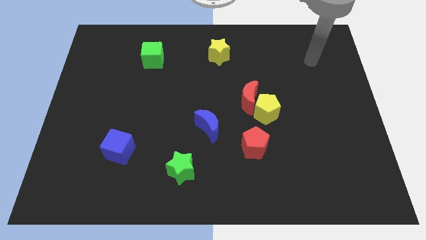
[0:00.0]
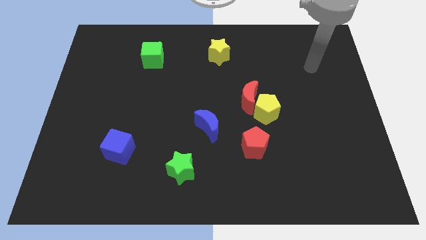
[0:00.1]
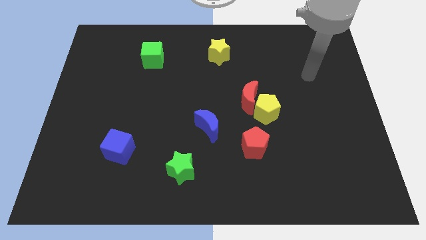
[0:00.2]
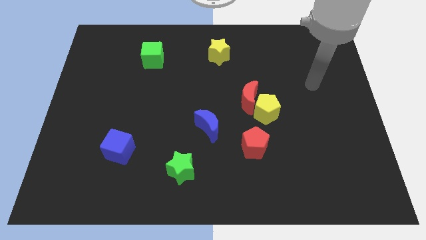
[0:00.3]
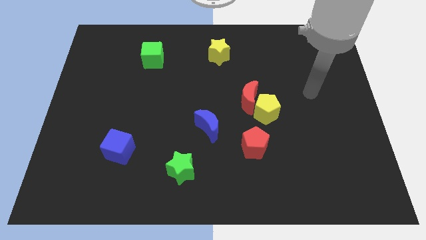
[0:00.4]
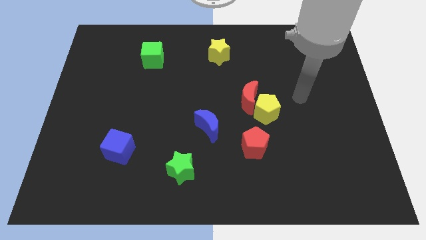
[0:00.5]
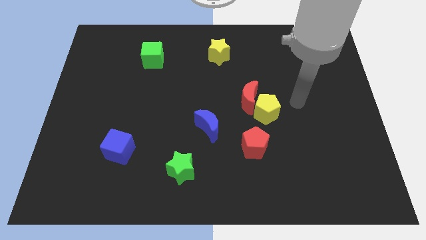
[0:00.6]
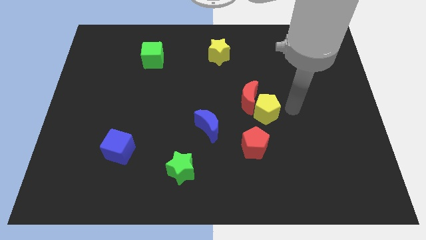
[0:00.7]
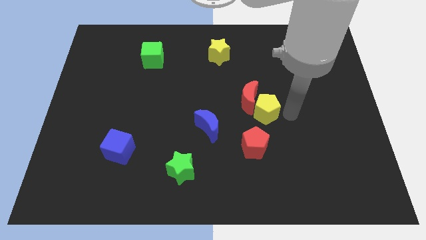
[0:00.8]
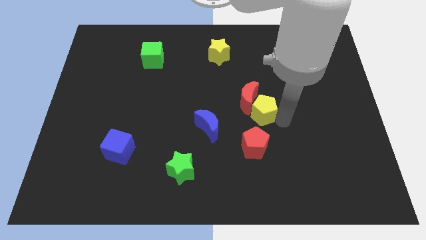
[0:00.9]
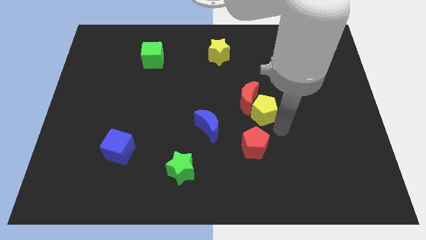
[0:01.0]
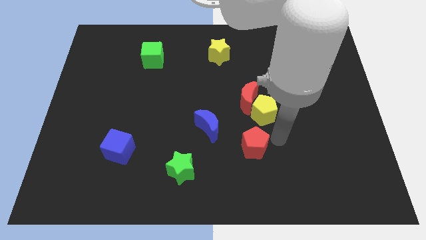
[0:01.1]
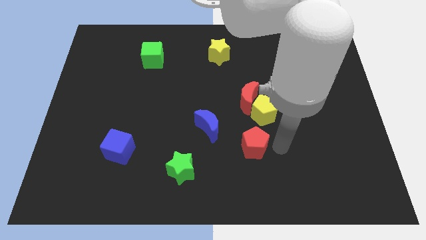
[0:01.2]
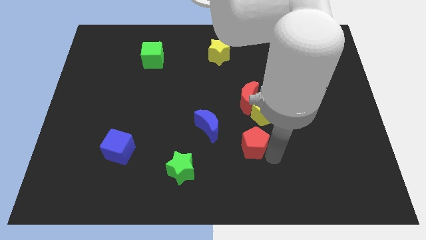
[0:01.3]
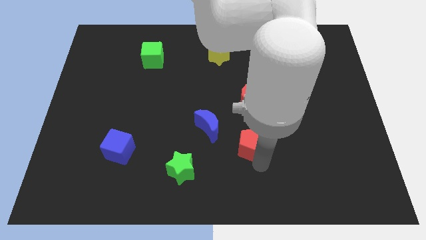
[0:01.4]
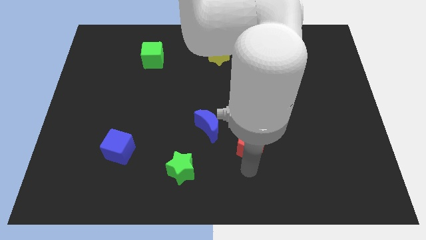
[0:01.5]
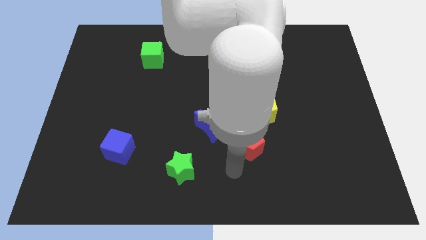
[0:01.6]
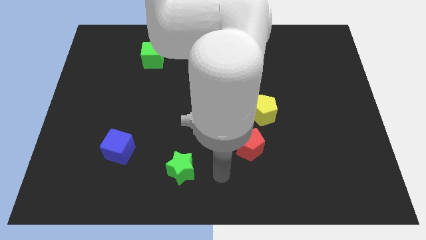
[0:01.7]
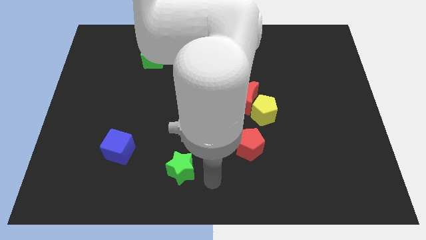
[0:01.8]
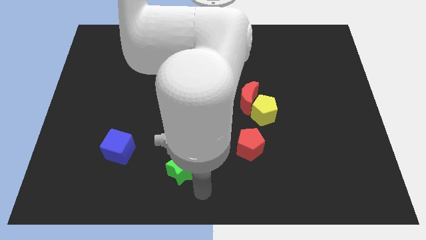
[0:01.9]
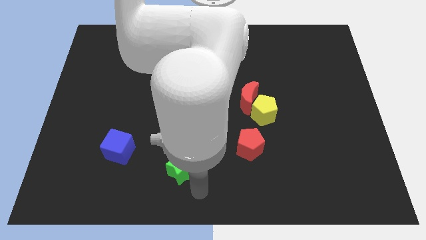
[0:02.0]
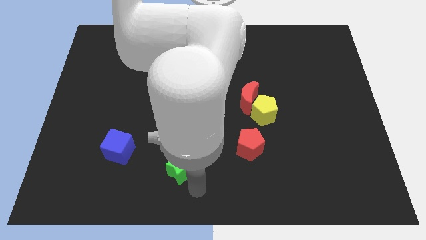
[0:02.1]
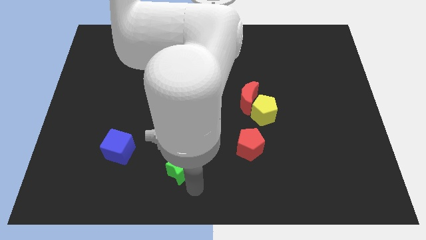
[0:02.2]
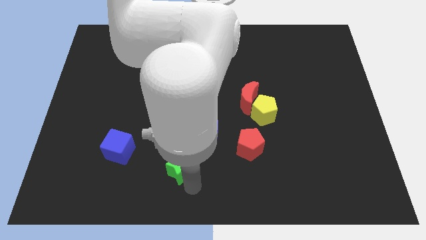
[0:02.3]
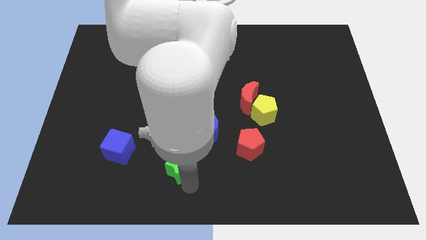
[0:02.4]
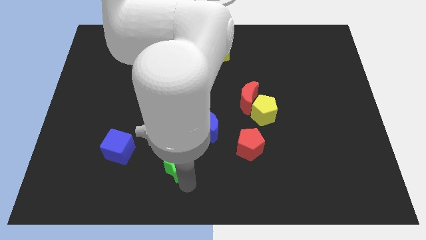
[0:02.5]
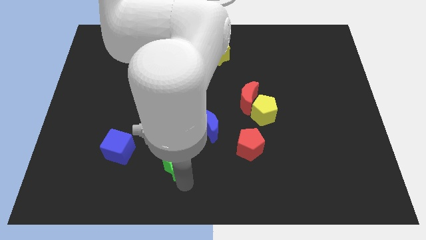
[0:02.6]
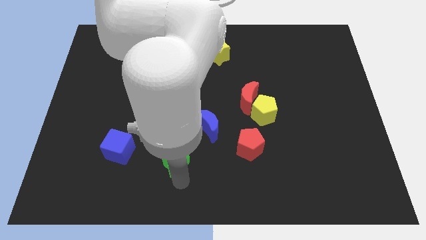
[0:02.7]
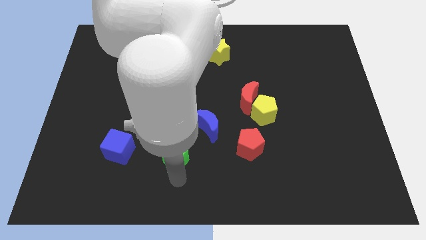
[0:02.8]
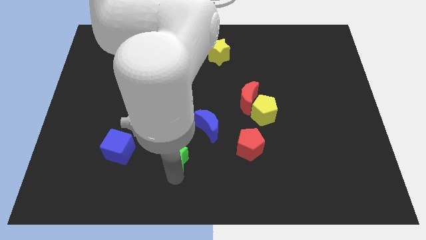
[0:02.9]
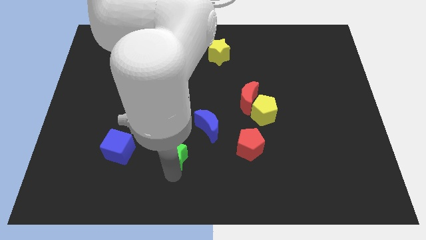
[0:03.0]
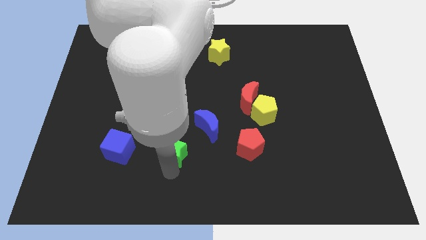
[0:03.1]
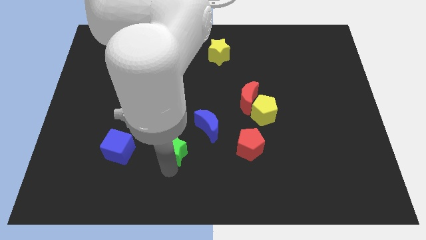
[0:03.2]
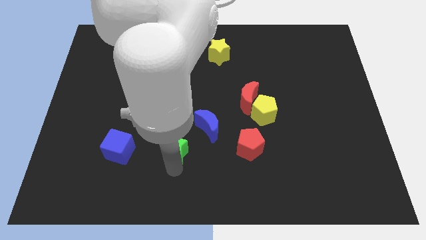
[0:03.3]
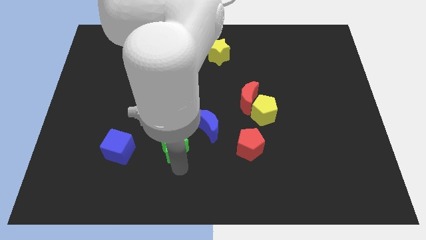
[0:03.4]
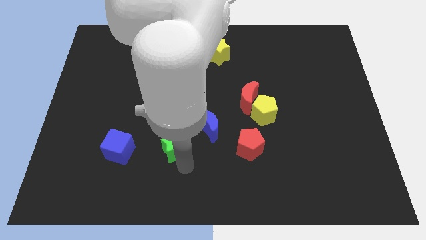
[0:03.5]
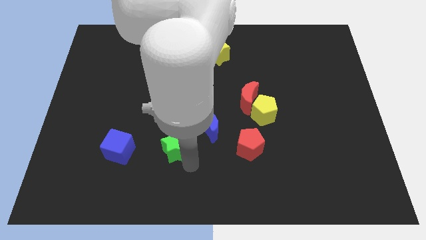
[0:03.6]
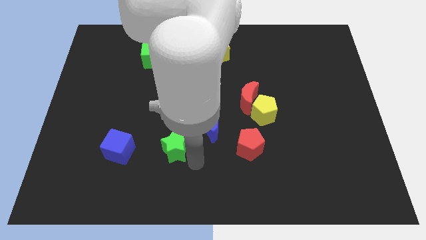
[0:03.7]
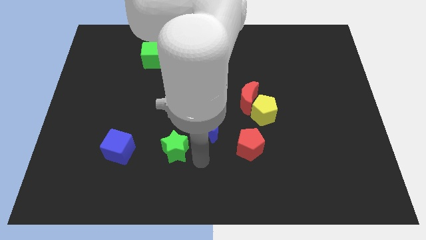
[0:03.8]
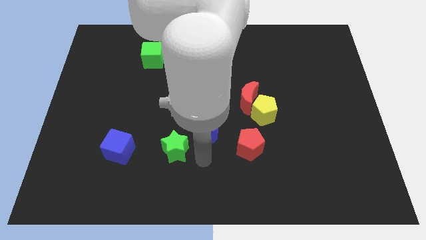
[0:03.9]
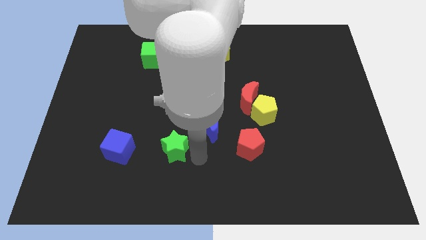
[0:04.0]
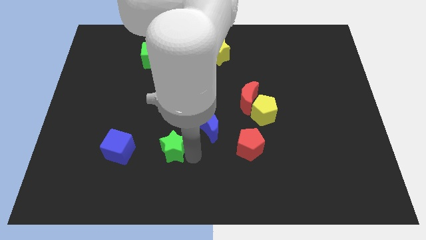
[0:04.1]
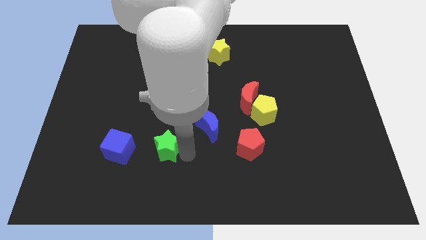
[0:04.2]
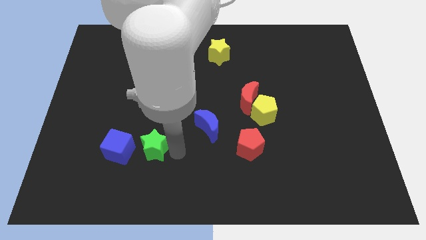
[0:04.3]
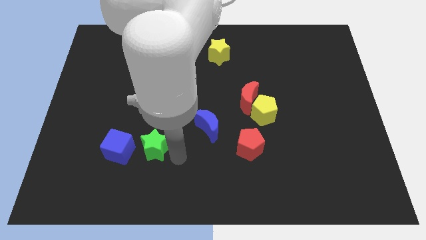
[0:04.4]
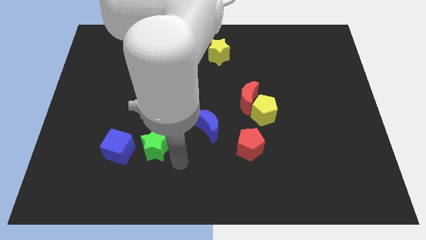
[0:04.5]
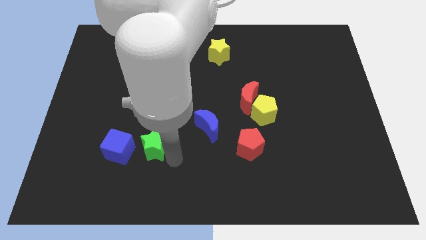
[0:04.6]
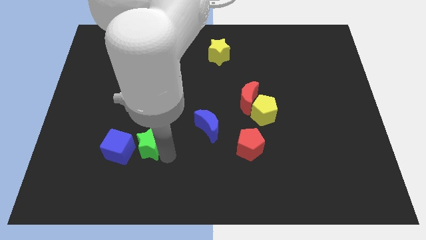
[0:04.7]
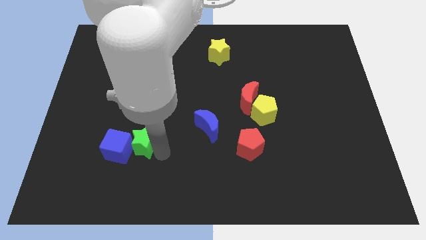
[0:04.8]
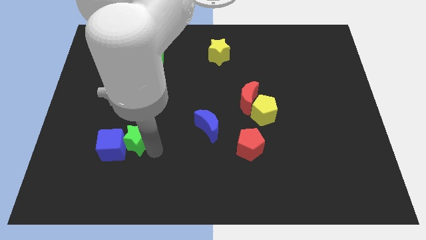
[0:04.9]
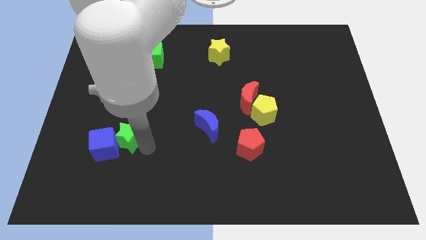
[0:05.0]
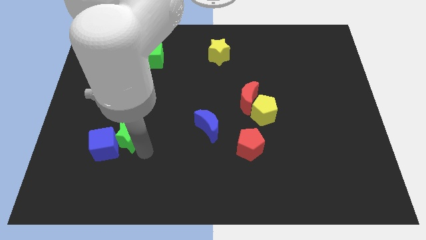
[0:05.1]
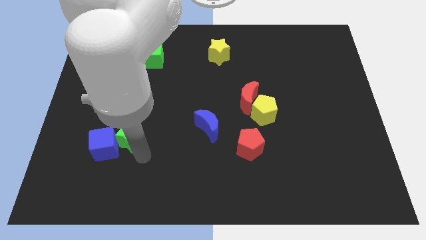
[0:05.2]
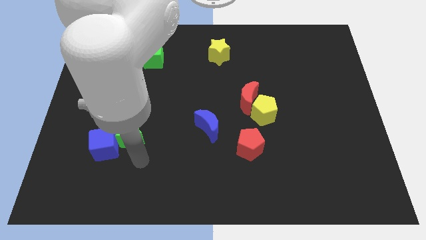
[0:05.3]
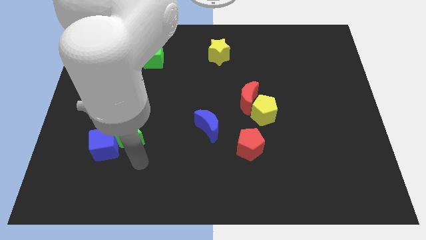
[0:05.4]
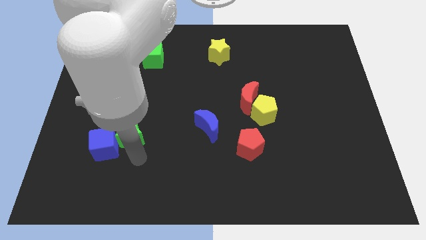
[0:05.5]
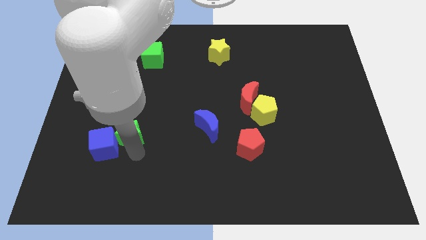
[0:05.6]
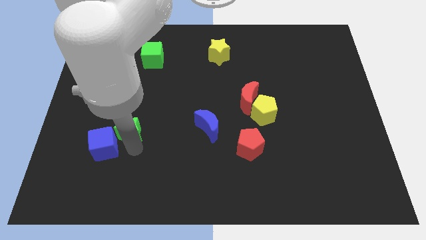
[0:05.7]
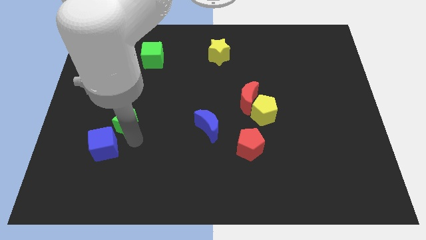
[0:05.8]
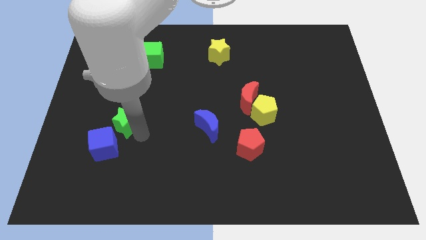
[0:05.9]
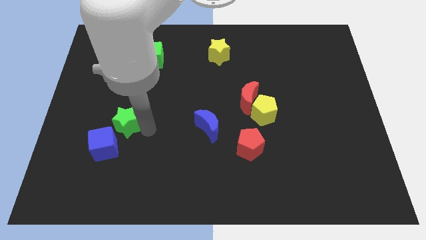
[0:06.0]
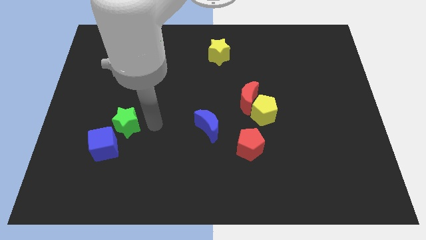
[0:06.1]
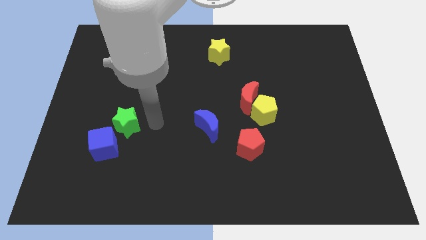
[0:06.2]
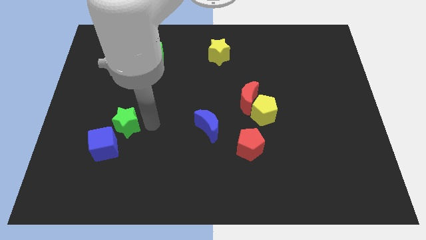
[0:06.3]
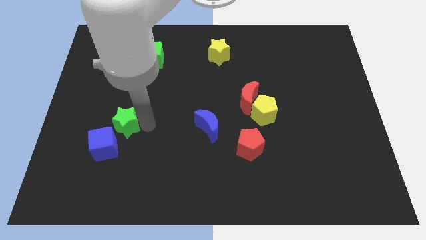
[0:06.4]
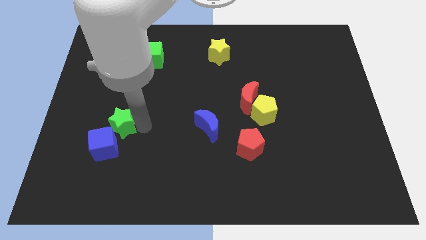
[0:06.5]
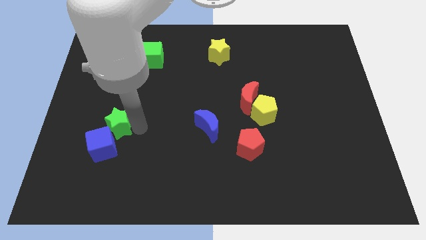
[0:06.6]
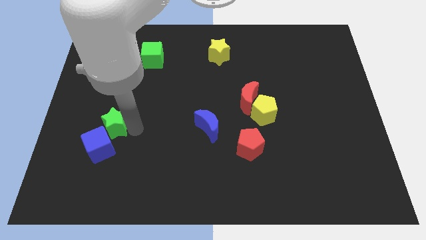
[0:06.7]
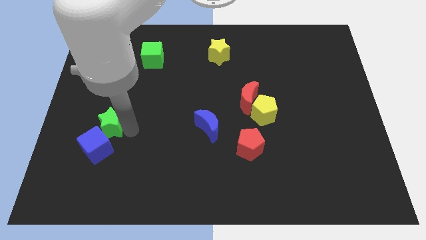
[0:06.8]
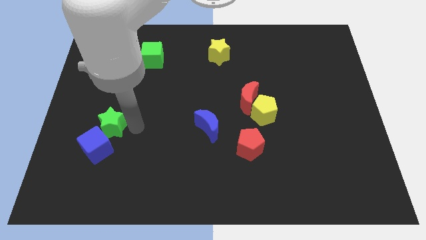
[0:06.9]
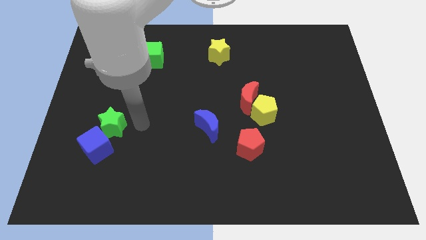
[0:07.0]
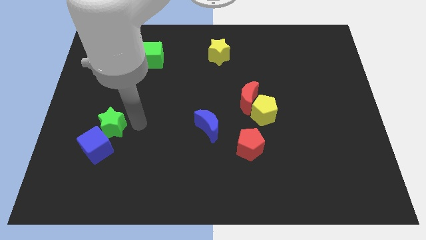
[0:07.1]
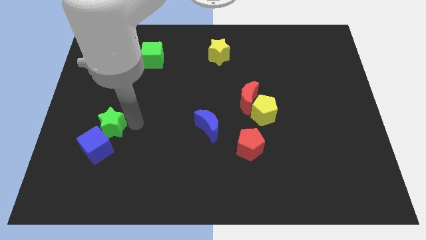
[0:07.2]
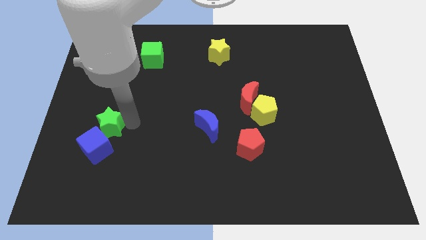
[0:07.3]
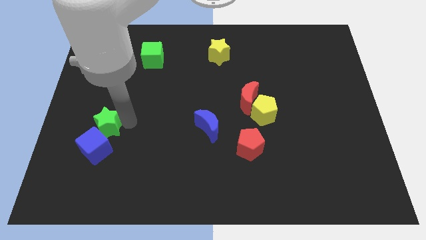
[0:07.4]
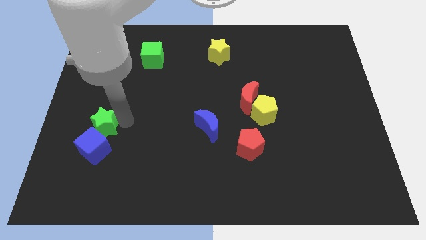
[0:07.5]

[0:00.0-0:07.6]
slide the green star diagonally up and to the left of the blue cube
